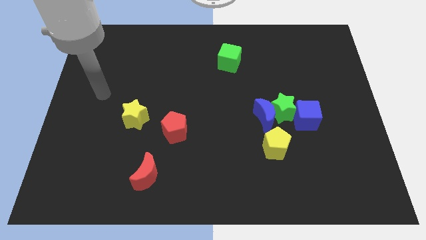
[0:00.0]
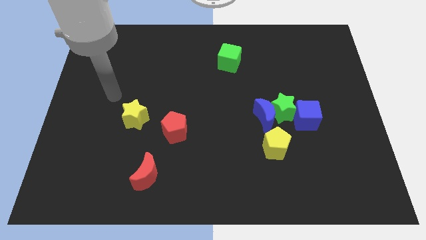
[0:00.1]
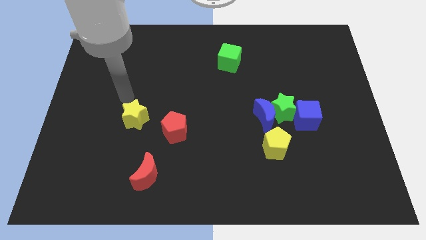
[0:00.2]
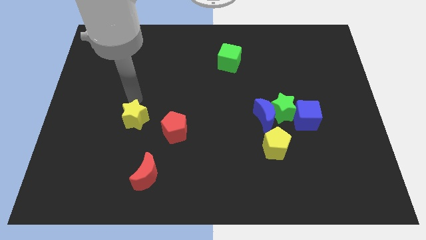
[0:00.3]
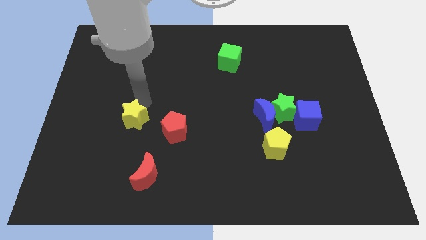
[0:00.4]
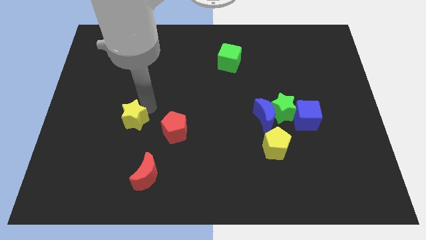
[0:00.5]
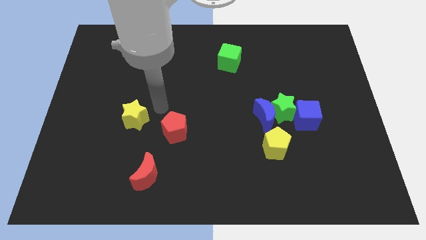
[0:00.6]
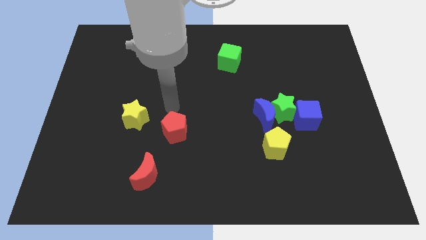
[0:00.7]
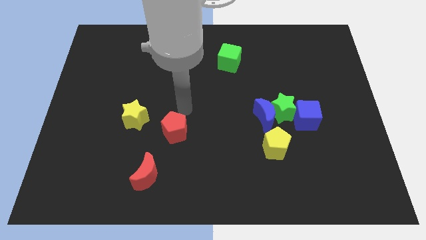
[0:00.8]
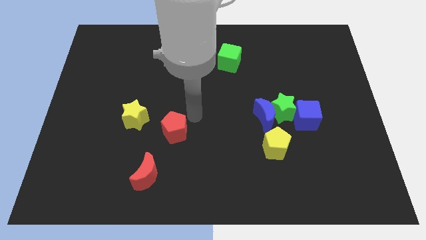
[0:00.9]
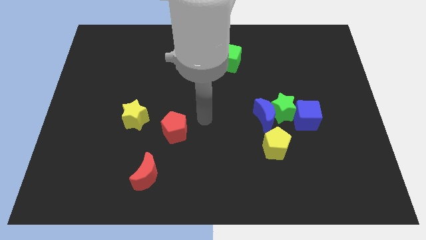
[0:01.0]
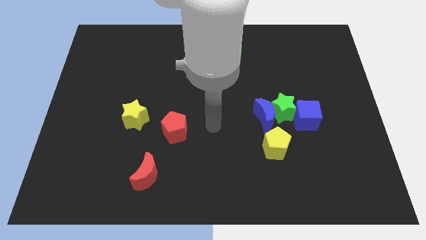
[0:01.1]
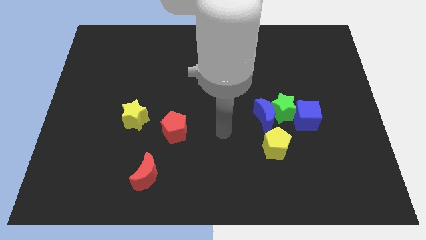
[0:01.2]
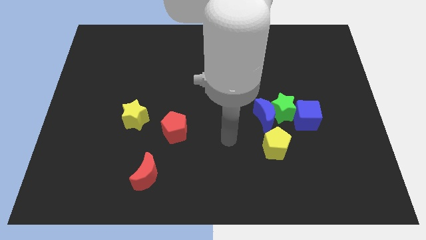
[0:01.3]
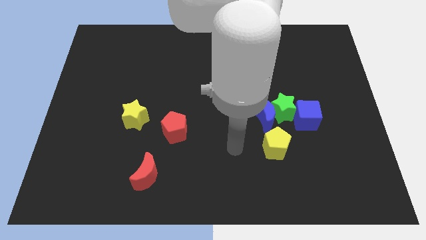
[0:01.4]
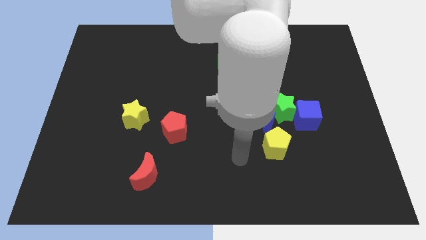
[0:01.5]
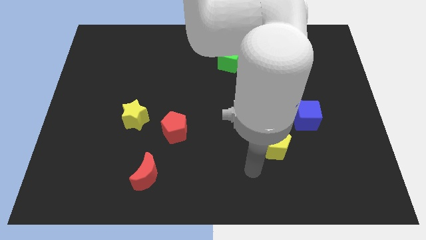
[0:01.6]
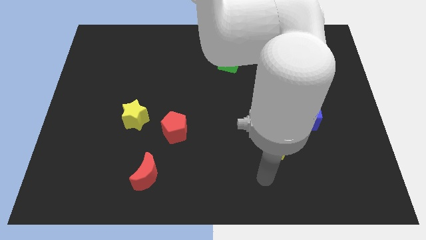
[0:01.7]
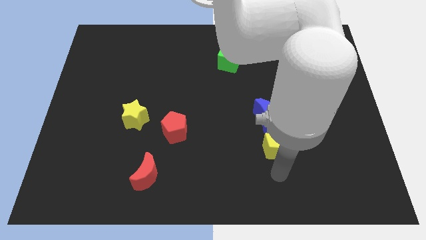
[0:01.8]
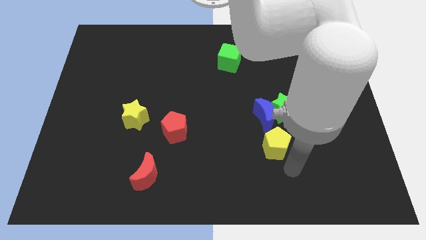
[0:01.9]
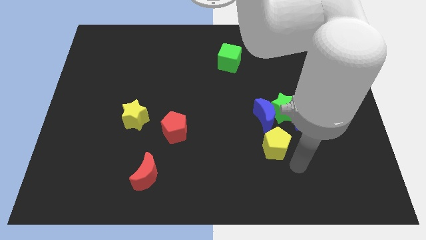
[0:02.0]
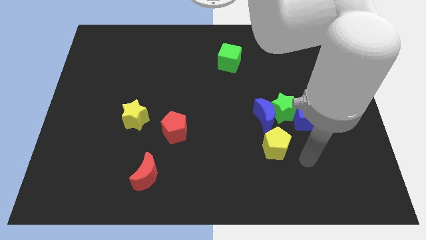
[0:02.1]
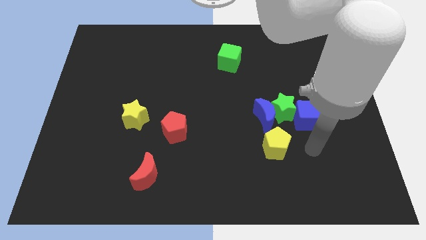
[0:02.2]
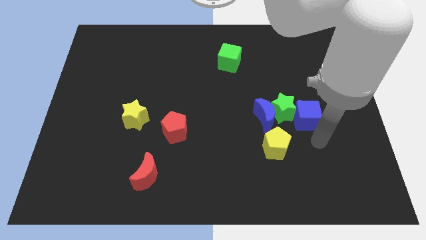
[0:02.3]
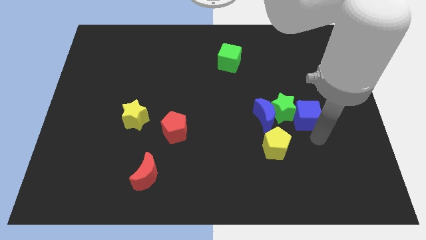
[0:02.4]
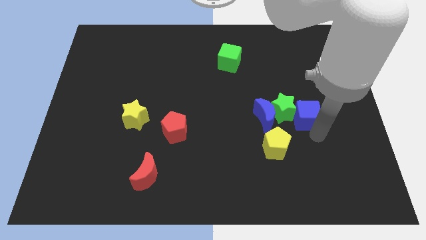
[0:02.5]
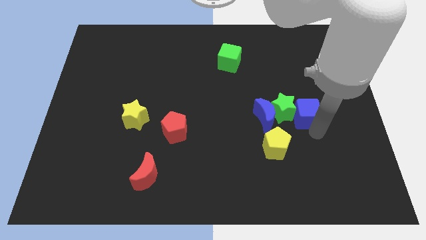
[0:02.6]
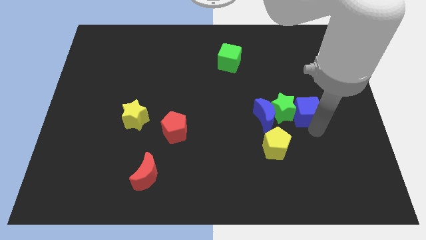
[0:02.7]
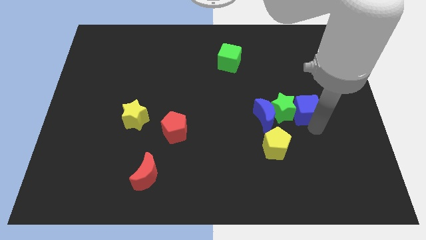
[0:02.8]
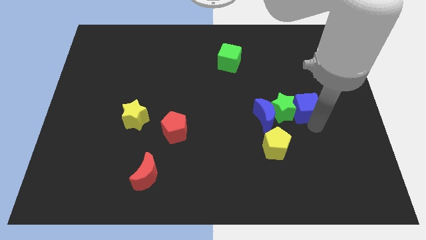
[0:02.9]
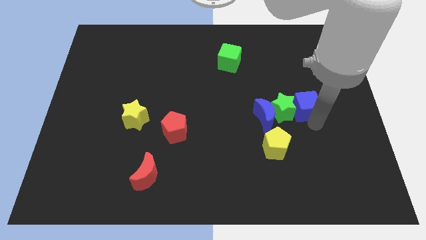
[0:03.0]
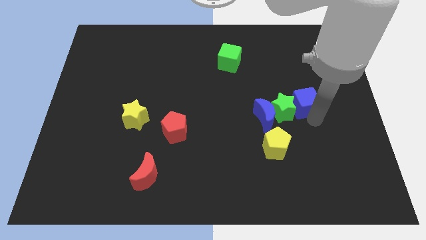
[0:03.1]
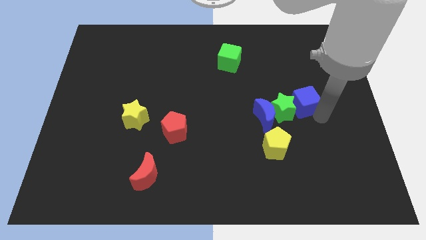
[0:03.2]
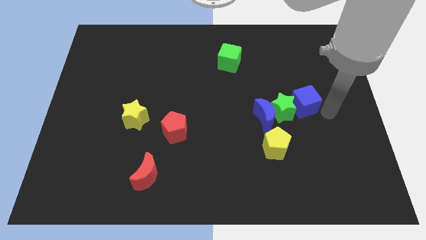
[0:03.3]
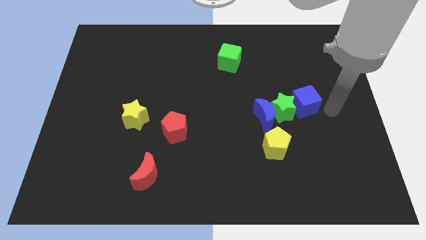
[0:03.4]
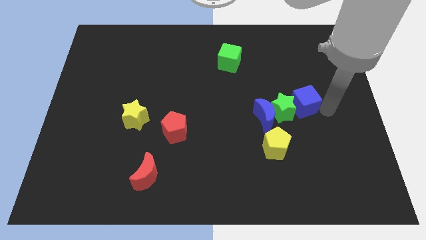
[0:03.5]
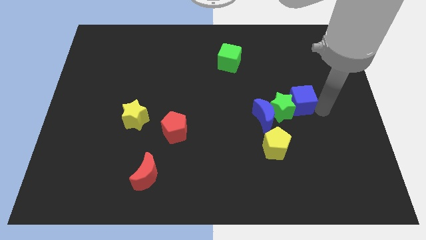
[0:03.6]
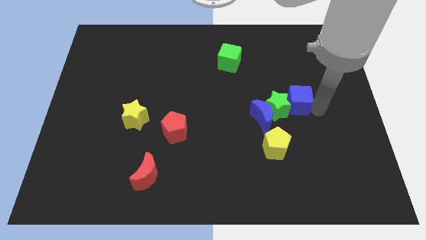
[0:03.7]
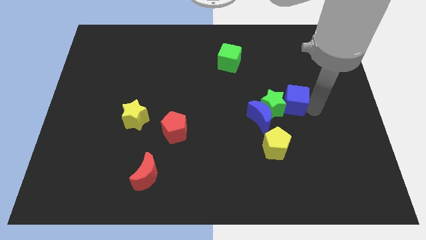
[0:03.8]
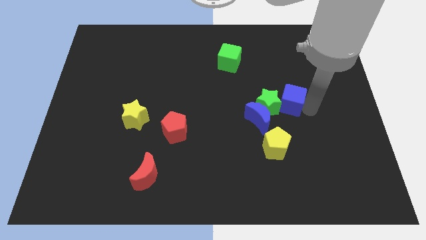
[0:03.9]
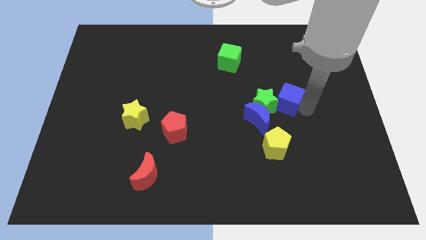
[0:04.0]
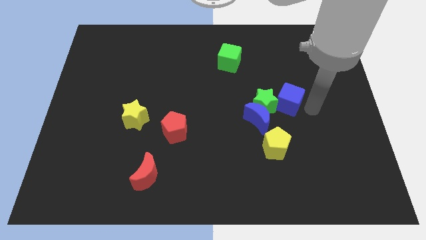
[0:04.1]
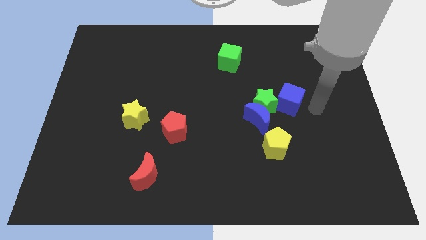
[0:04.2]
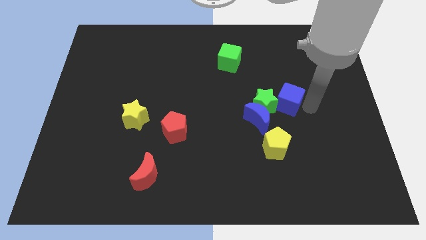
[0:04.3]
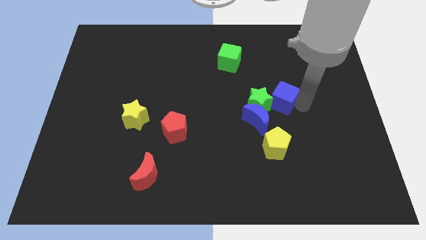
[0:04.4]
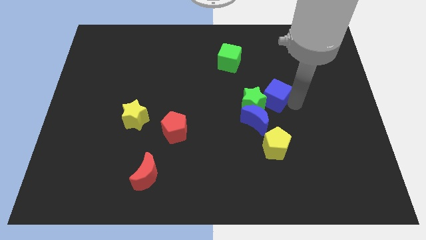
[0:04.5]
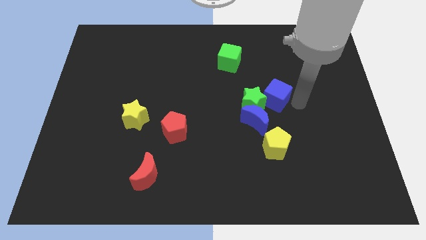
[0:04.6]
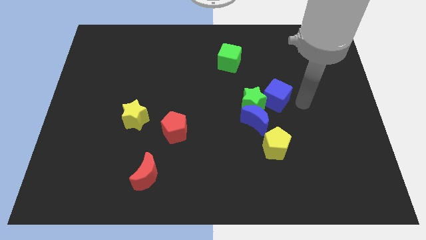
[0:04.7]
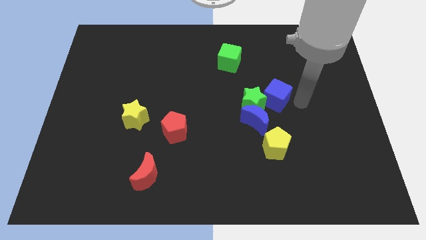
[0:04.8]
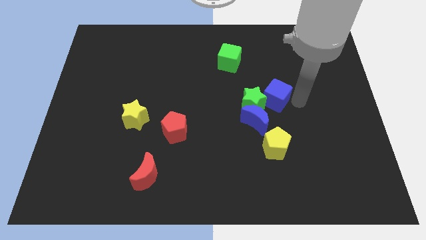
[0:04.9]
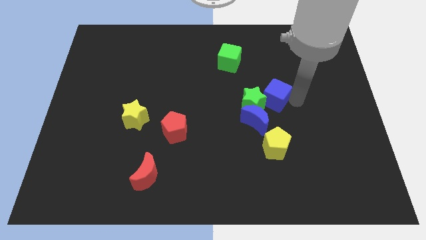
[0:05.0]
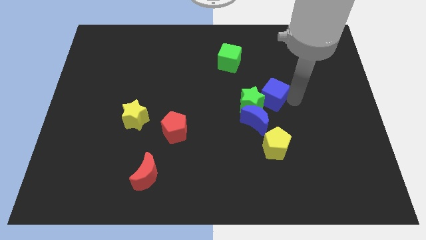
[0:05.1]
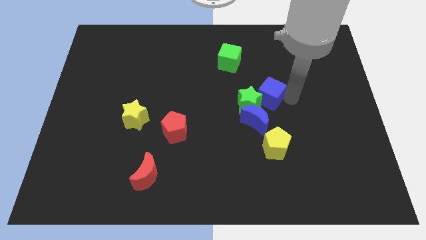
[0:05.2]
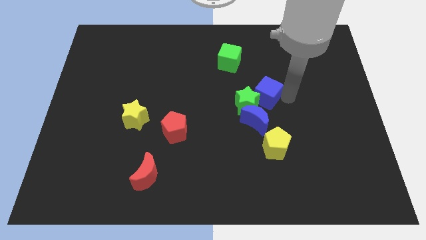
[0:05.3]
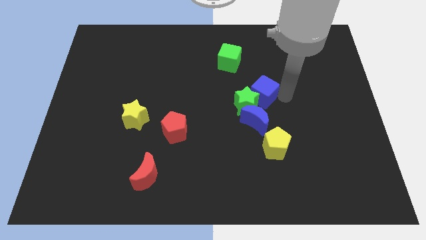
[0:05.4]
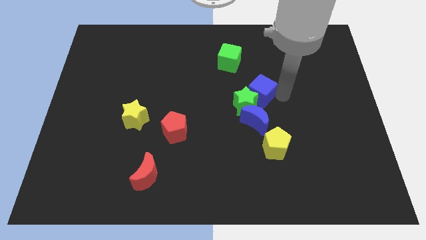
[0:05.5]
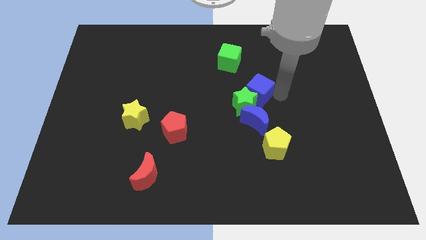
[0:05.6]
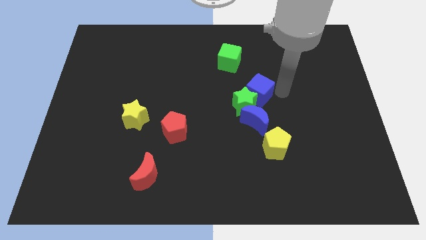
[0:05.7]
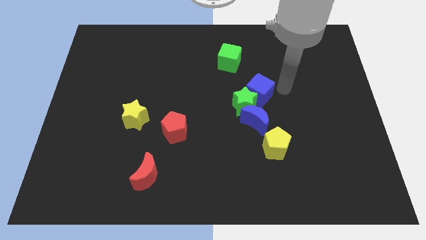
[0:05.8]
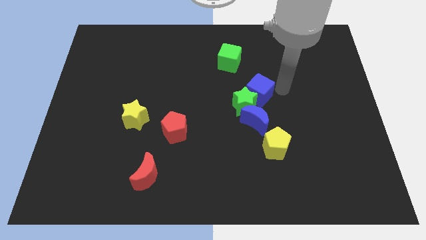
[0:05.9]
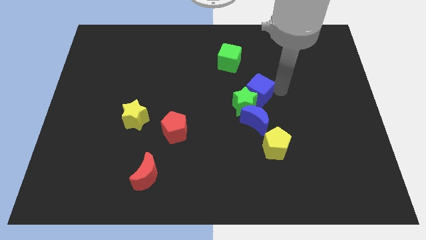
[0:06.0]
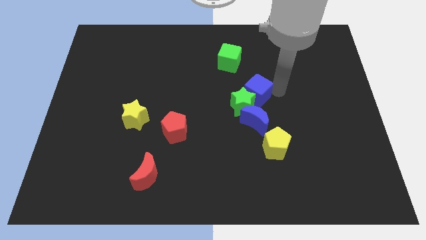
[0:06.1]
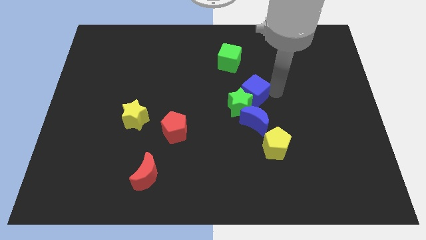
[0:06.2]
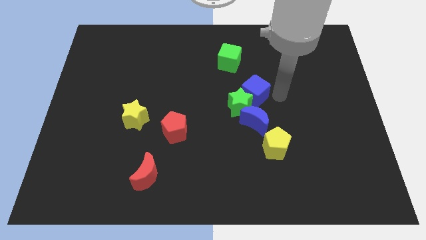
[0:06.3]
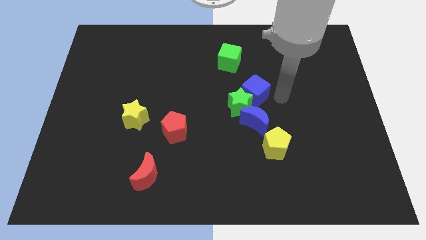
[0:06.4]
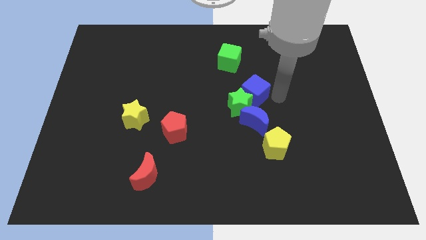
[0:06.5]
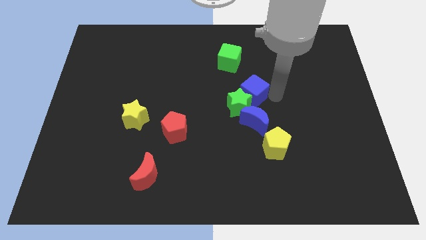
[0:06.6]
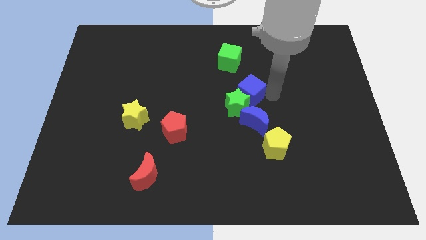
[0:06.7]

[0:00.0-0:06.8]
slide the blue cube below the green cube
